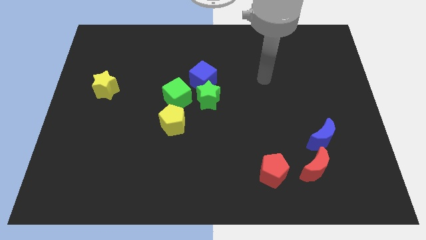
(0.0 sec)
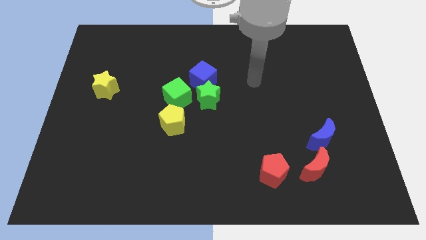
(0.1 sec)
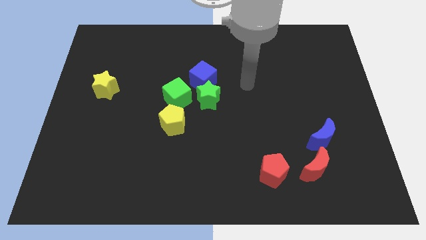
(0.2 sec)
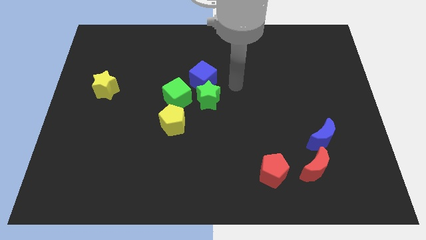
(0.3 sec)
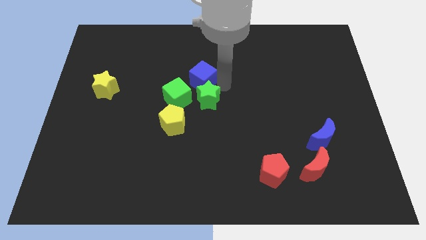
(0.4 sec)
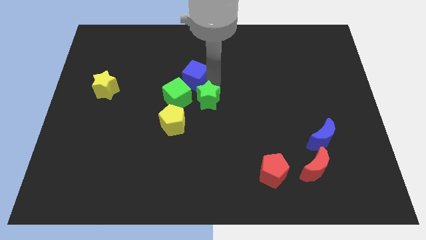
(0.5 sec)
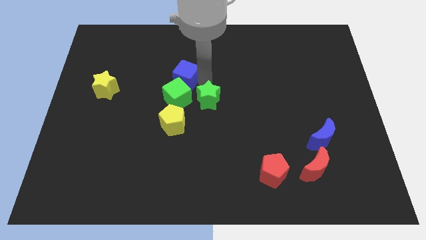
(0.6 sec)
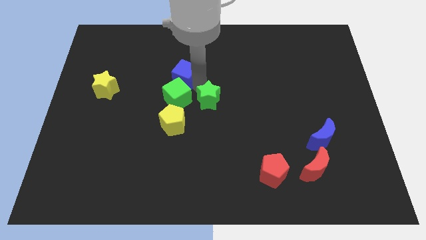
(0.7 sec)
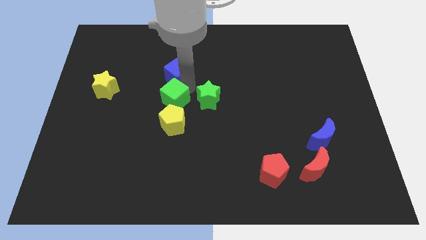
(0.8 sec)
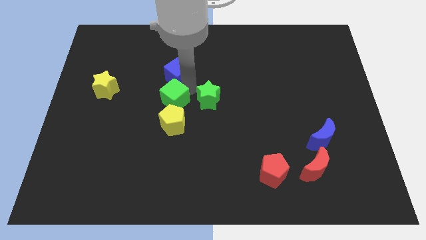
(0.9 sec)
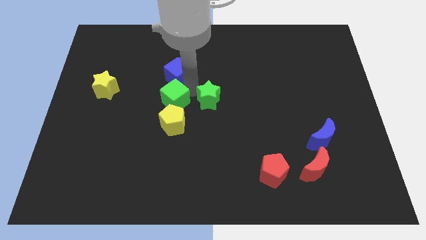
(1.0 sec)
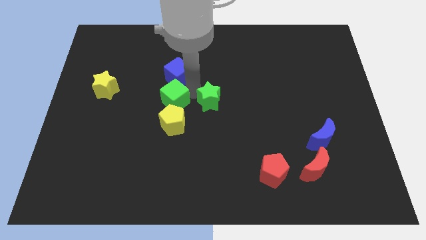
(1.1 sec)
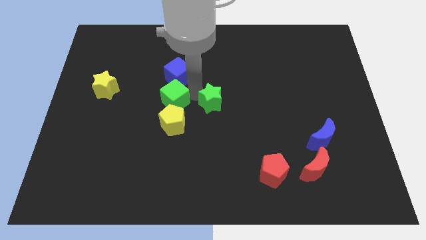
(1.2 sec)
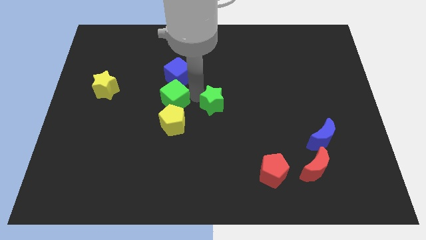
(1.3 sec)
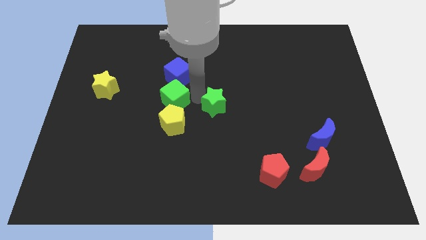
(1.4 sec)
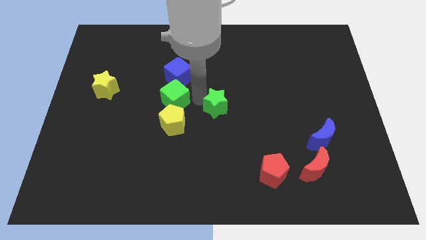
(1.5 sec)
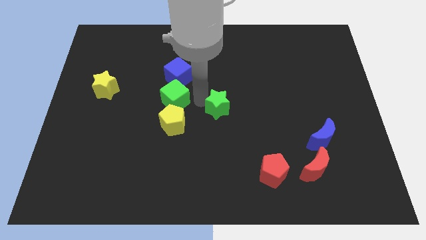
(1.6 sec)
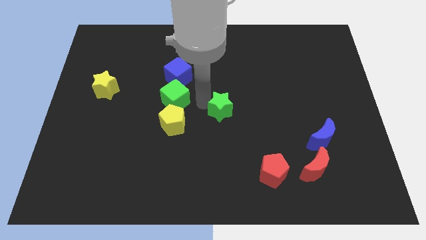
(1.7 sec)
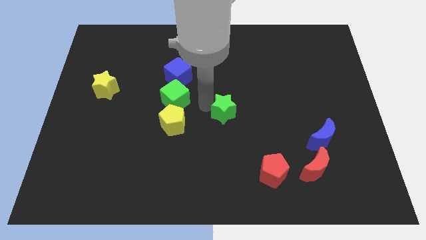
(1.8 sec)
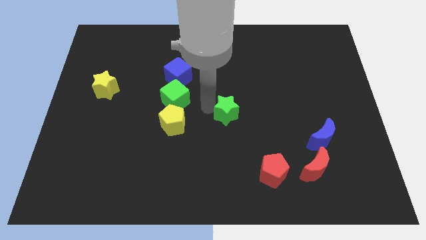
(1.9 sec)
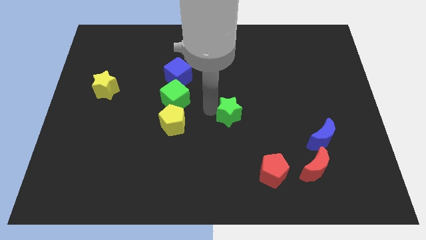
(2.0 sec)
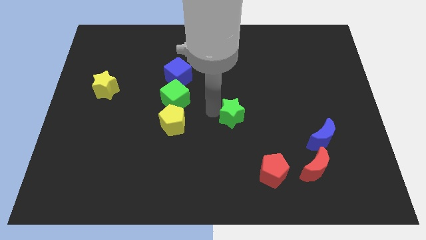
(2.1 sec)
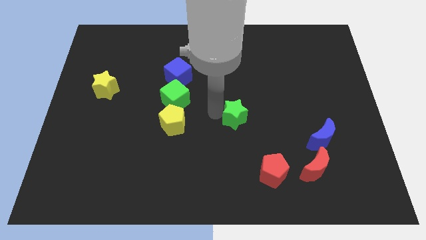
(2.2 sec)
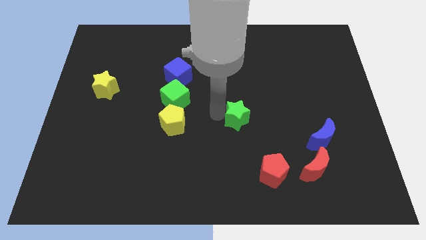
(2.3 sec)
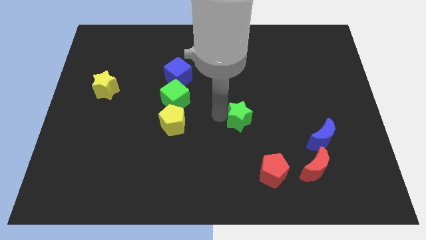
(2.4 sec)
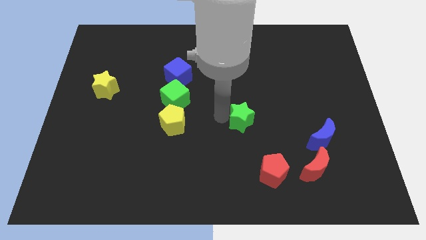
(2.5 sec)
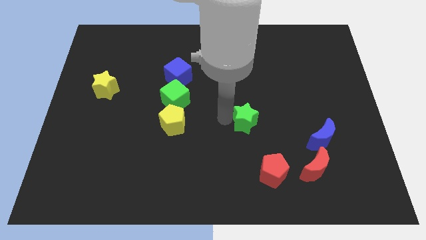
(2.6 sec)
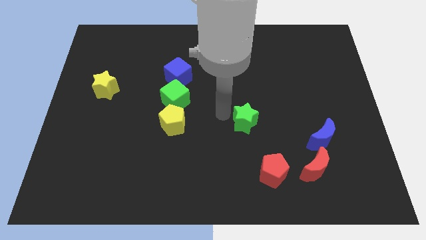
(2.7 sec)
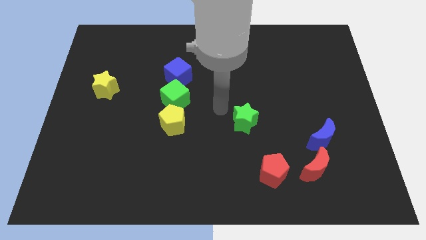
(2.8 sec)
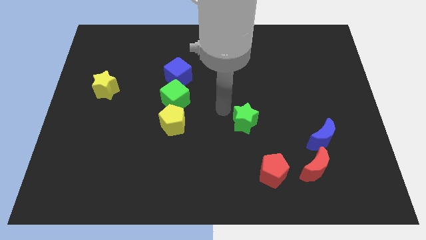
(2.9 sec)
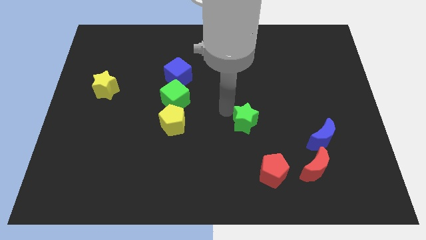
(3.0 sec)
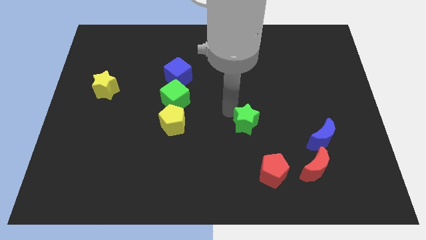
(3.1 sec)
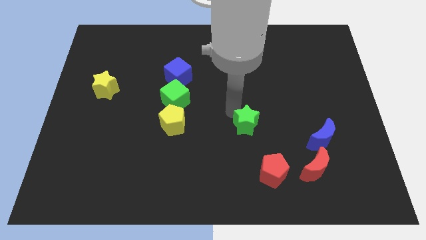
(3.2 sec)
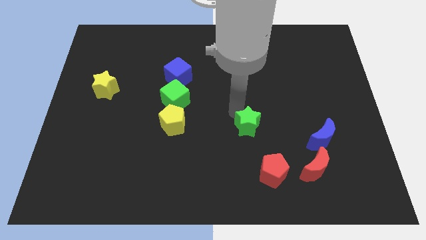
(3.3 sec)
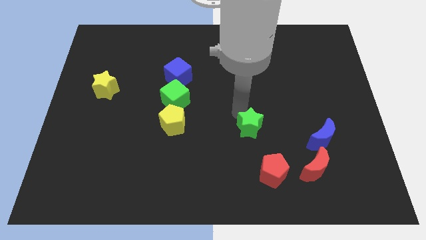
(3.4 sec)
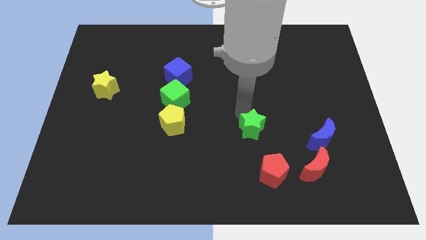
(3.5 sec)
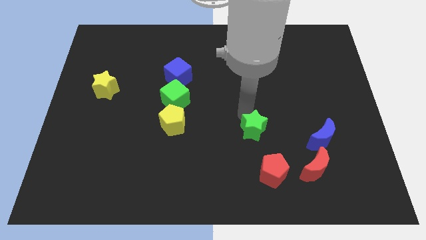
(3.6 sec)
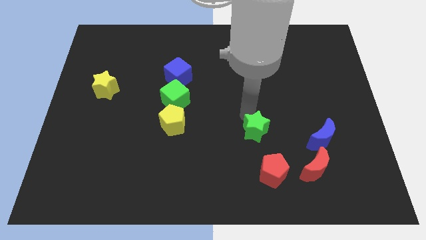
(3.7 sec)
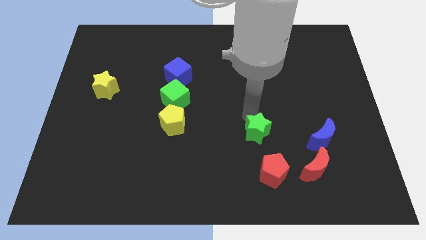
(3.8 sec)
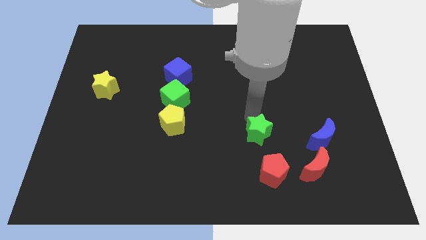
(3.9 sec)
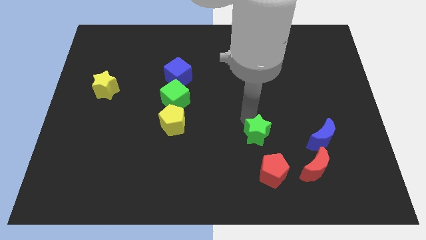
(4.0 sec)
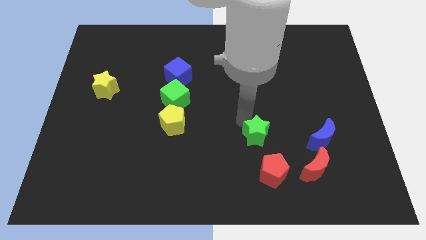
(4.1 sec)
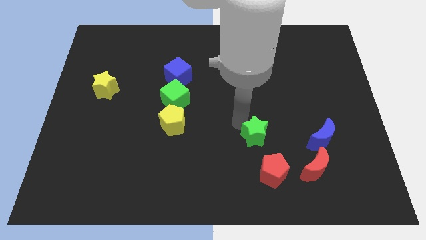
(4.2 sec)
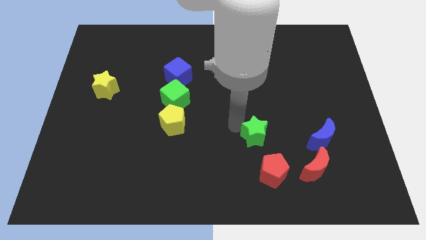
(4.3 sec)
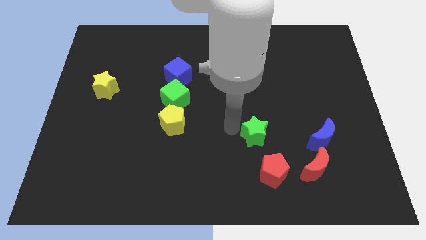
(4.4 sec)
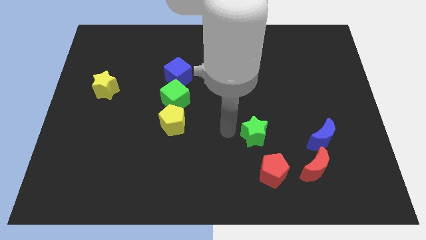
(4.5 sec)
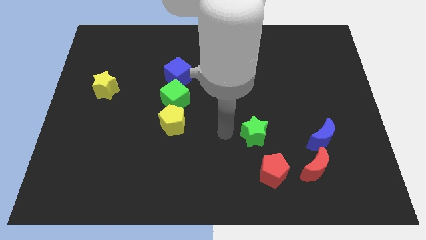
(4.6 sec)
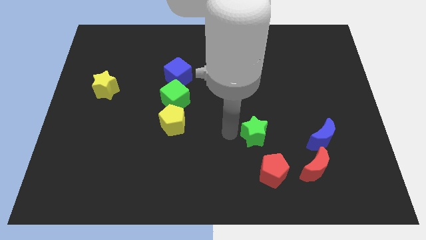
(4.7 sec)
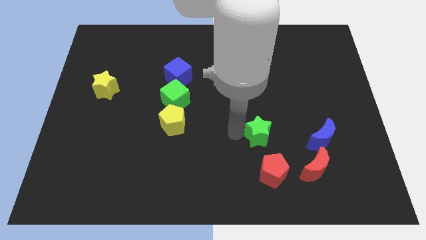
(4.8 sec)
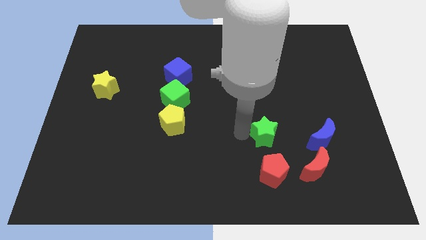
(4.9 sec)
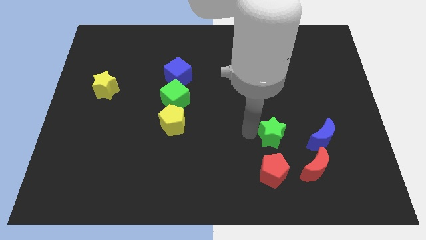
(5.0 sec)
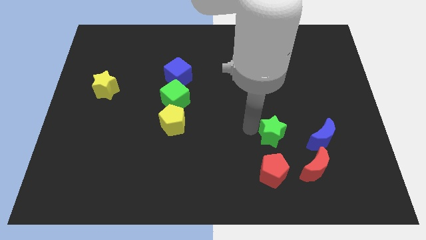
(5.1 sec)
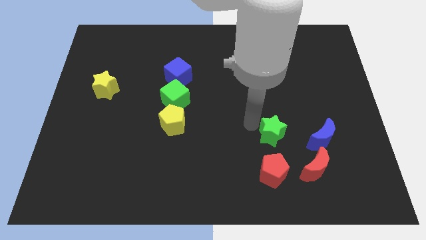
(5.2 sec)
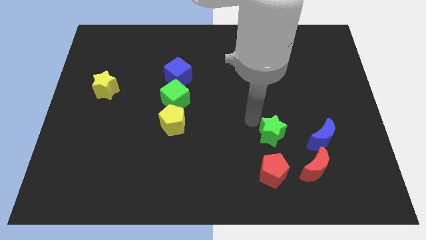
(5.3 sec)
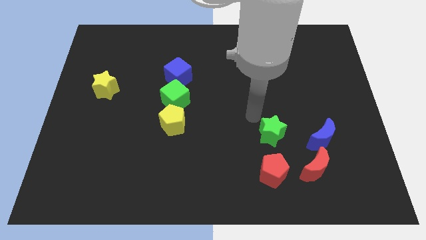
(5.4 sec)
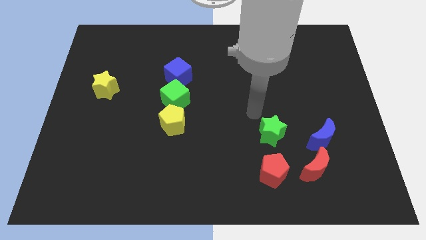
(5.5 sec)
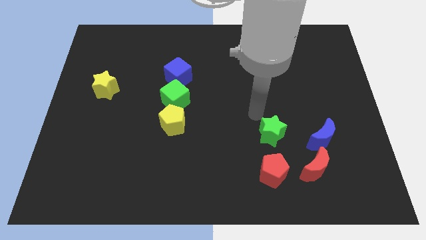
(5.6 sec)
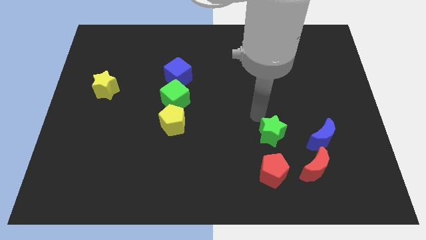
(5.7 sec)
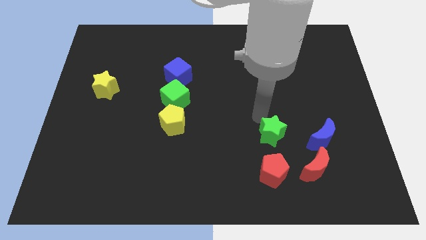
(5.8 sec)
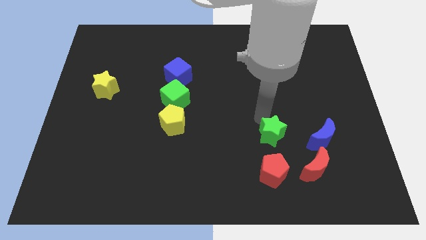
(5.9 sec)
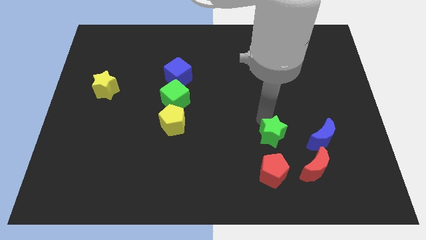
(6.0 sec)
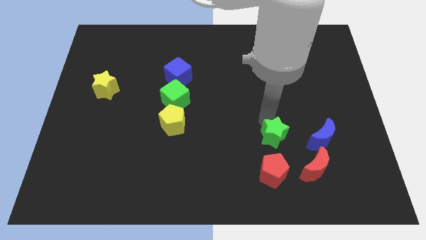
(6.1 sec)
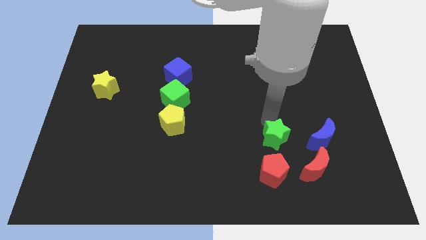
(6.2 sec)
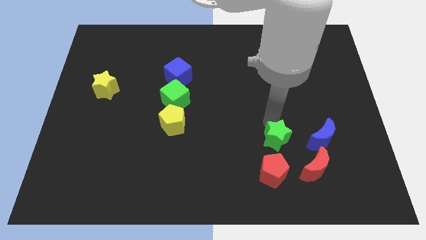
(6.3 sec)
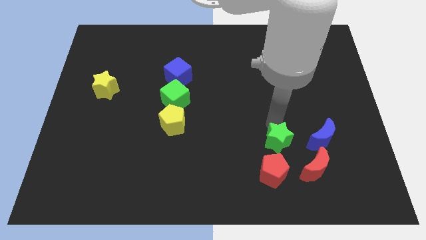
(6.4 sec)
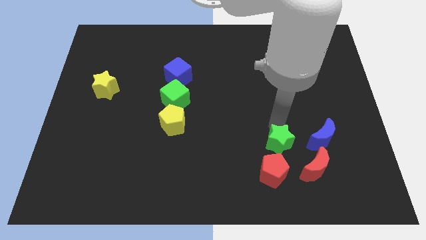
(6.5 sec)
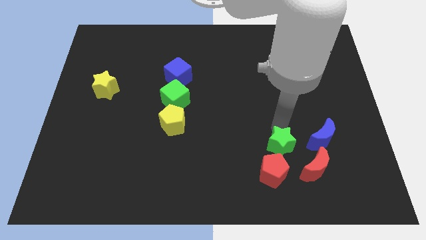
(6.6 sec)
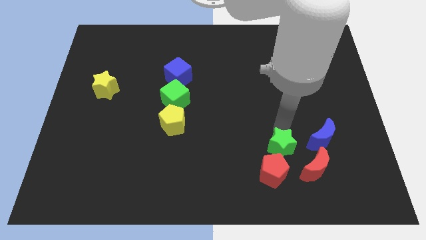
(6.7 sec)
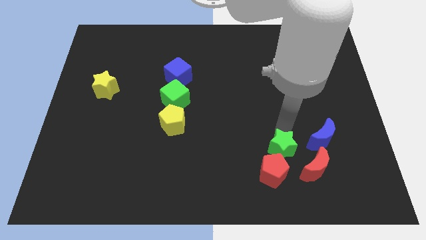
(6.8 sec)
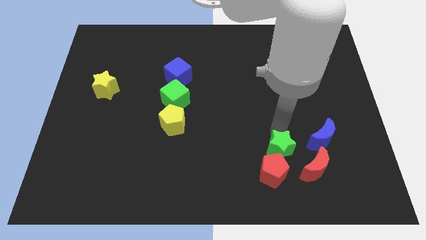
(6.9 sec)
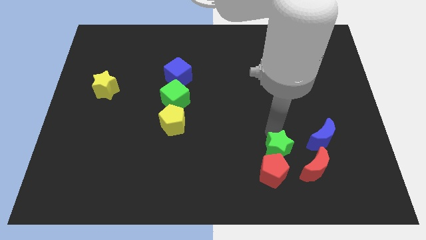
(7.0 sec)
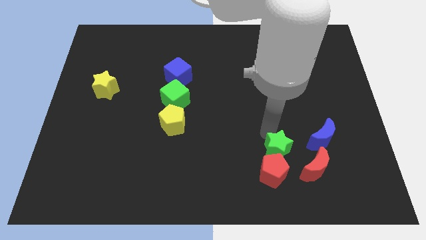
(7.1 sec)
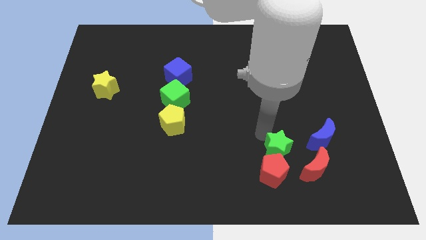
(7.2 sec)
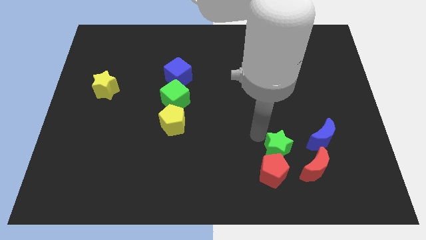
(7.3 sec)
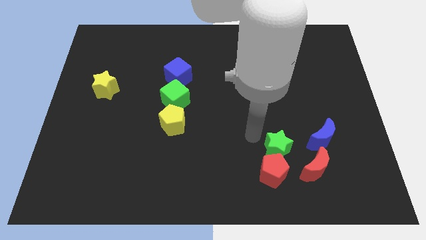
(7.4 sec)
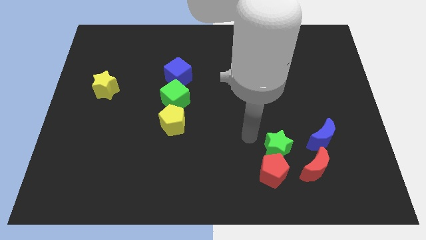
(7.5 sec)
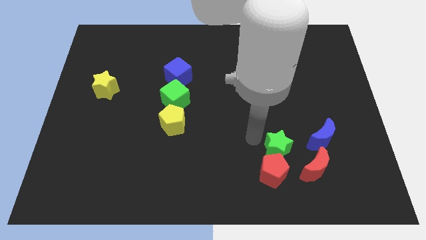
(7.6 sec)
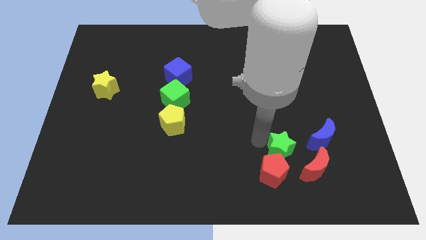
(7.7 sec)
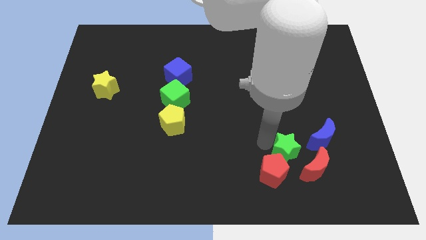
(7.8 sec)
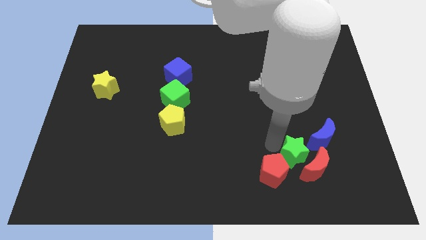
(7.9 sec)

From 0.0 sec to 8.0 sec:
slide the green star close to the red moon
